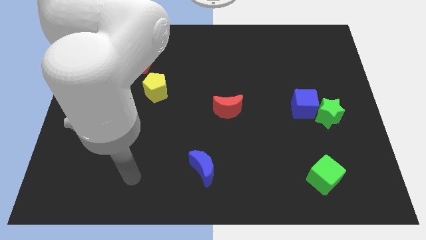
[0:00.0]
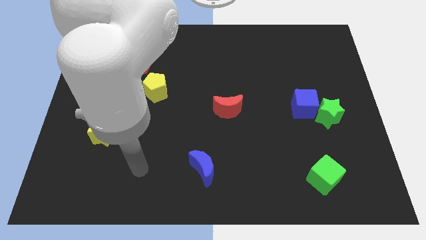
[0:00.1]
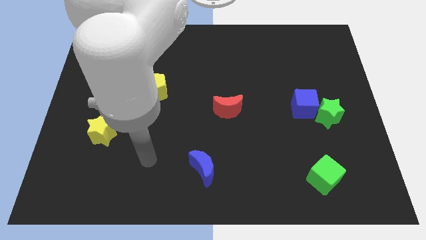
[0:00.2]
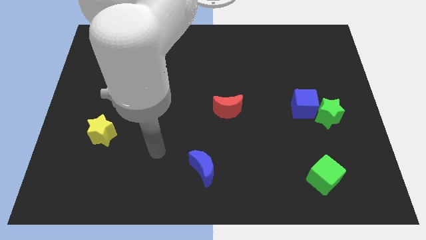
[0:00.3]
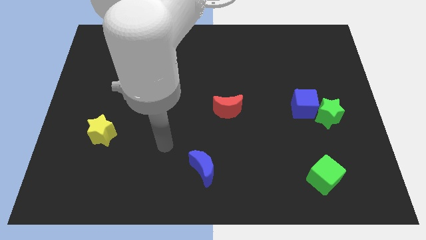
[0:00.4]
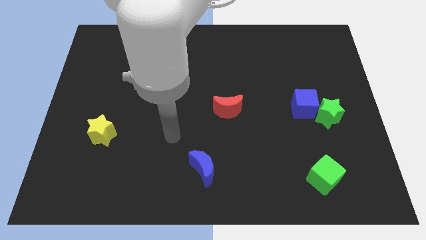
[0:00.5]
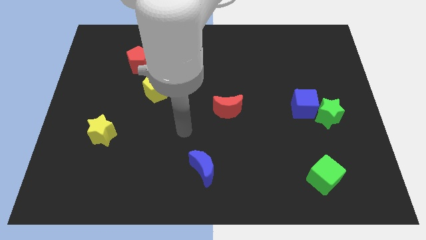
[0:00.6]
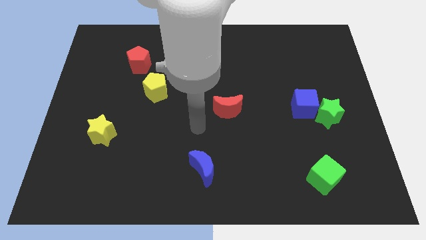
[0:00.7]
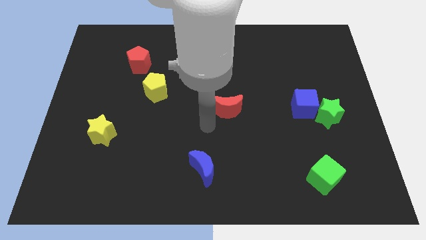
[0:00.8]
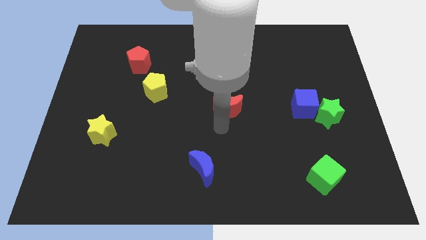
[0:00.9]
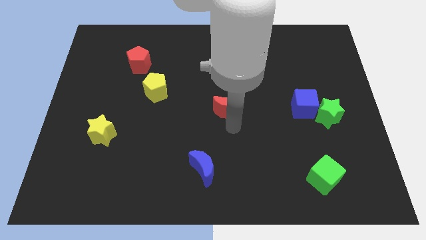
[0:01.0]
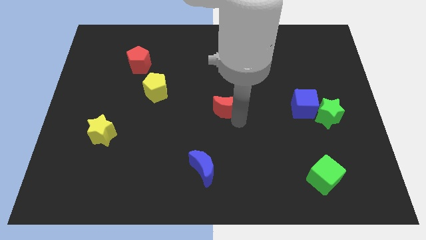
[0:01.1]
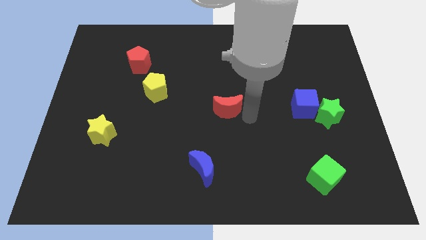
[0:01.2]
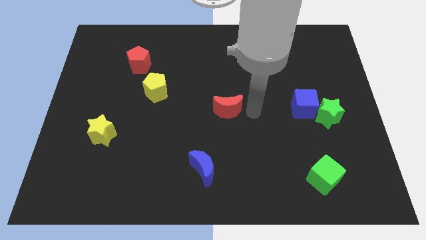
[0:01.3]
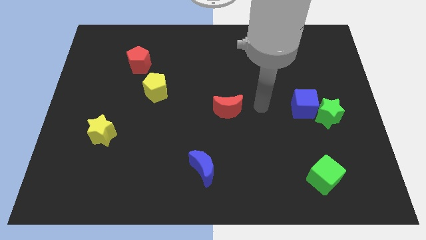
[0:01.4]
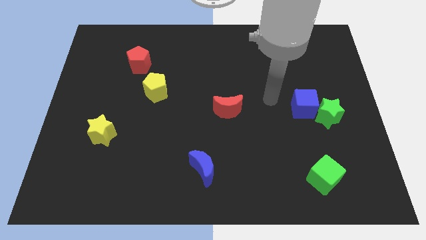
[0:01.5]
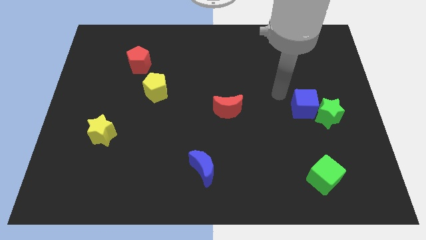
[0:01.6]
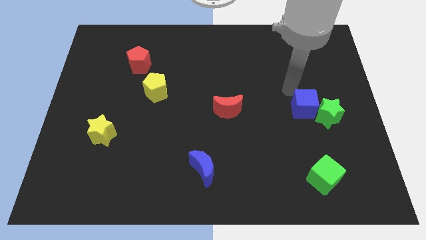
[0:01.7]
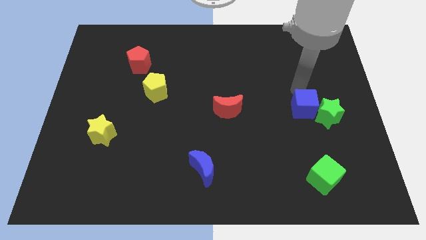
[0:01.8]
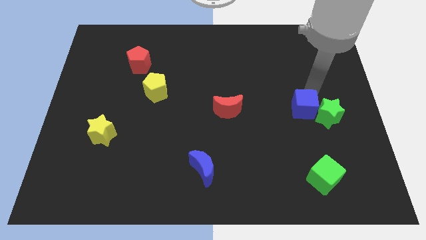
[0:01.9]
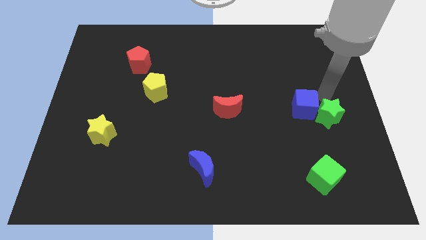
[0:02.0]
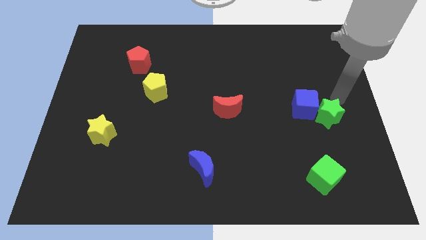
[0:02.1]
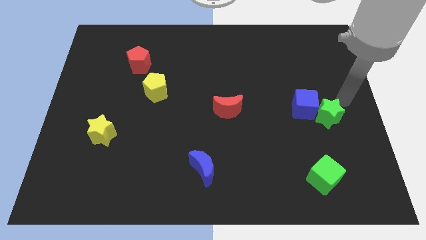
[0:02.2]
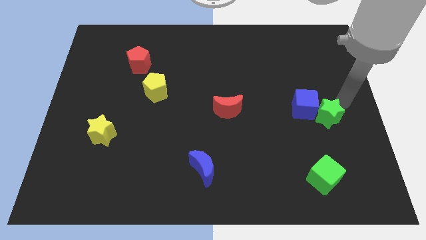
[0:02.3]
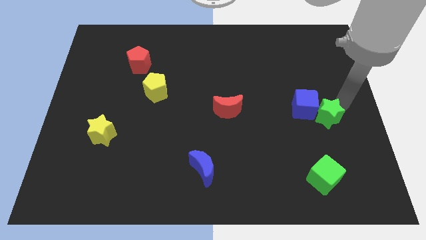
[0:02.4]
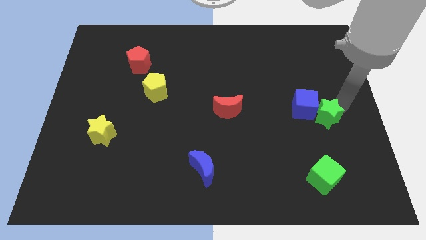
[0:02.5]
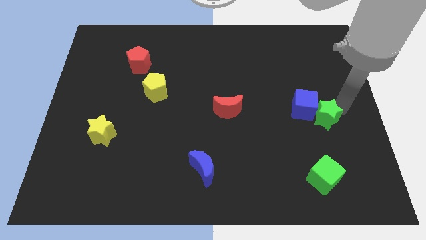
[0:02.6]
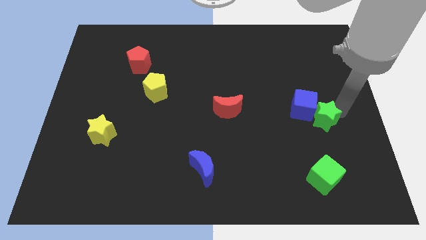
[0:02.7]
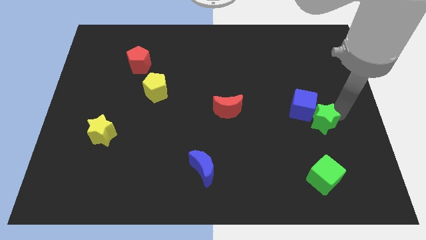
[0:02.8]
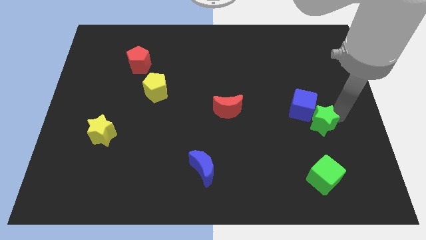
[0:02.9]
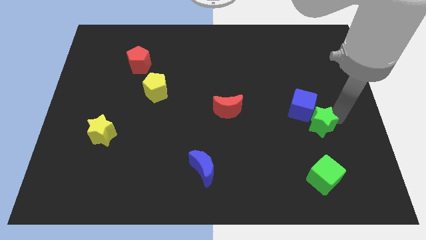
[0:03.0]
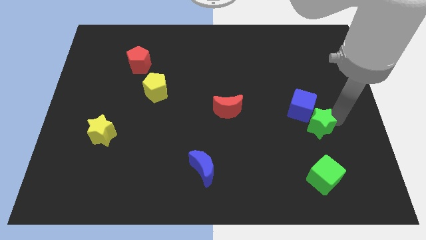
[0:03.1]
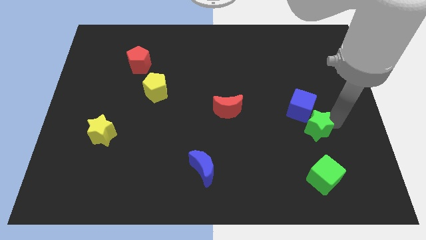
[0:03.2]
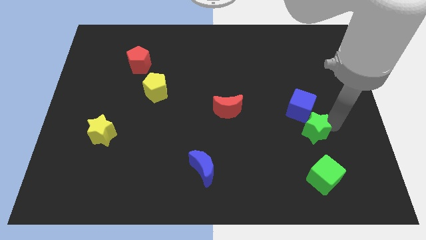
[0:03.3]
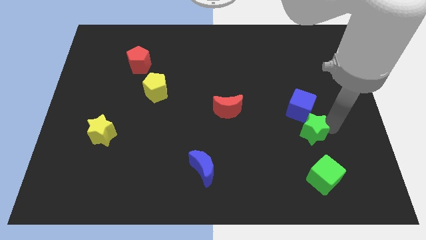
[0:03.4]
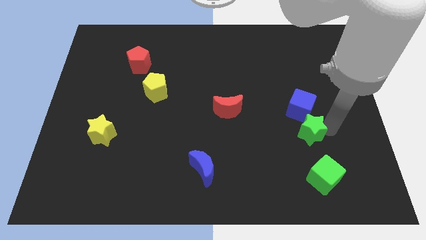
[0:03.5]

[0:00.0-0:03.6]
push the green star downwards and to the left a little

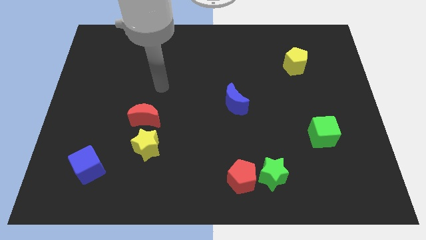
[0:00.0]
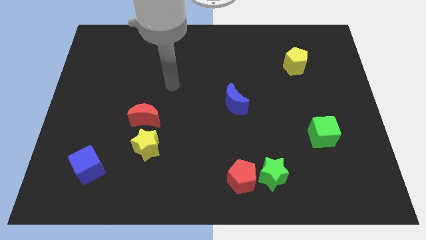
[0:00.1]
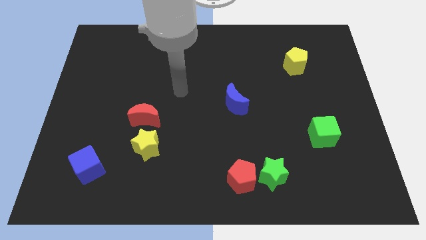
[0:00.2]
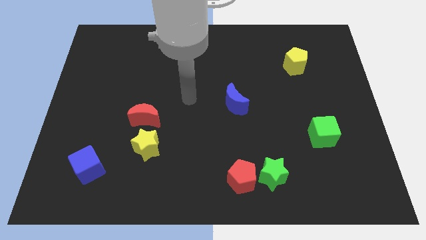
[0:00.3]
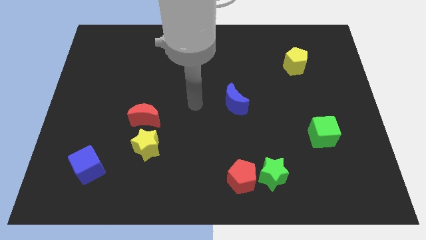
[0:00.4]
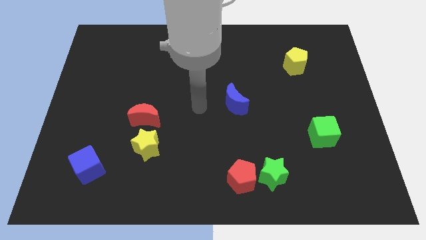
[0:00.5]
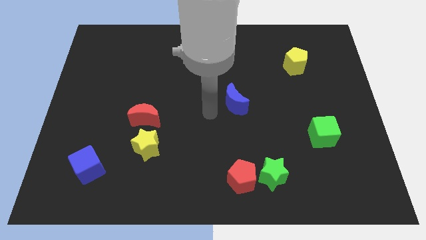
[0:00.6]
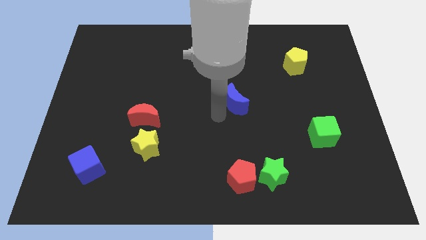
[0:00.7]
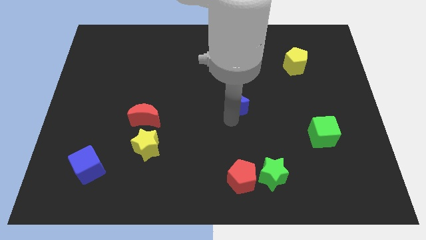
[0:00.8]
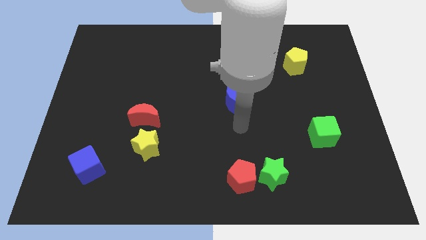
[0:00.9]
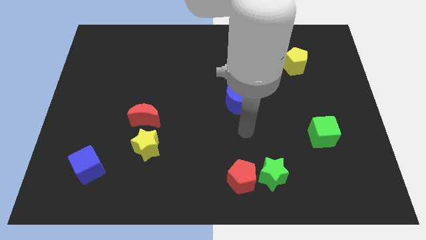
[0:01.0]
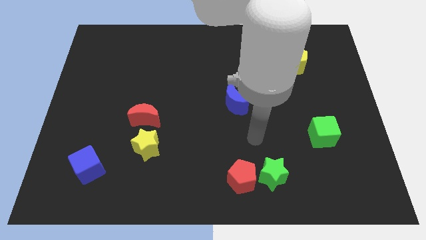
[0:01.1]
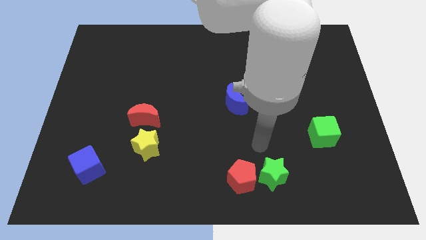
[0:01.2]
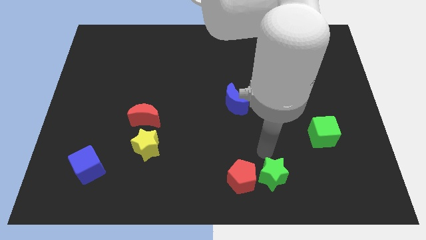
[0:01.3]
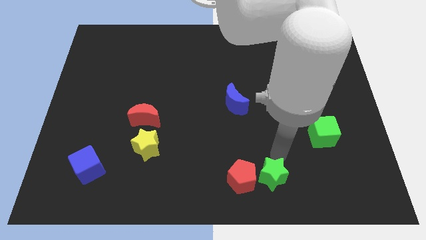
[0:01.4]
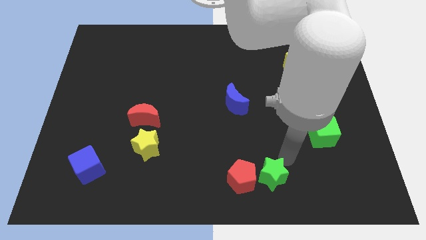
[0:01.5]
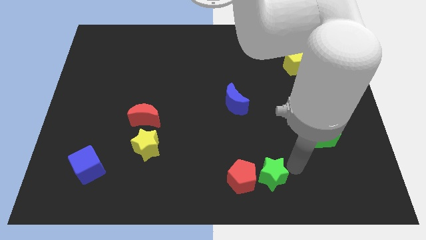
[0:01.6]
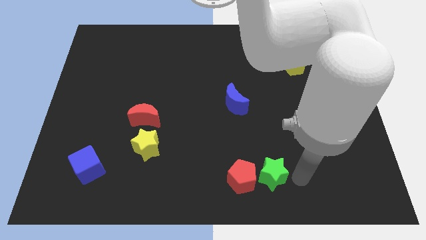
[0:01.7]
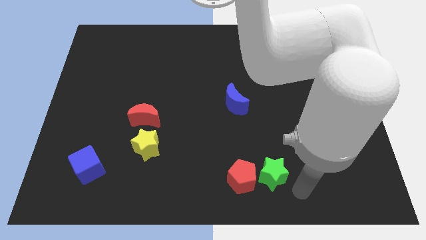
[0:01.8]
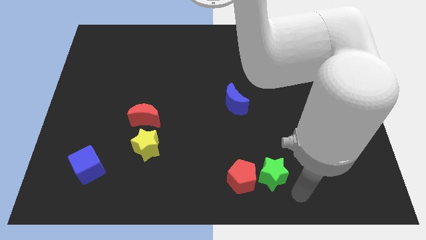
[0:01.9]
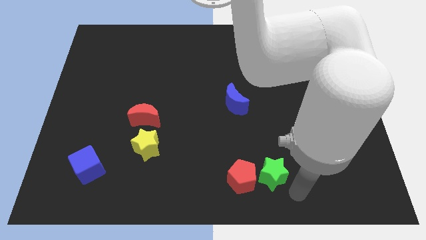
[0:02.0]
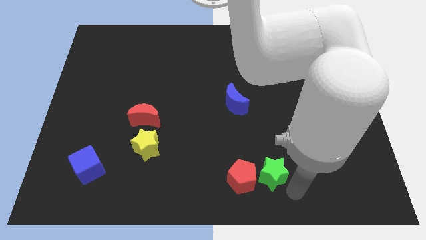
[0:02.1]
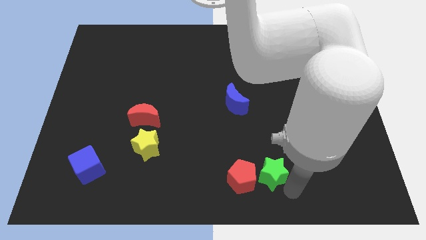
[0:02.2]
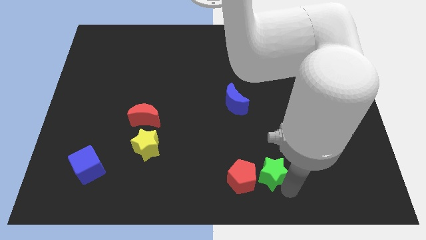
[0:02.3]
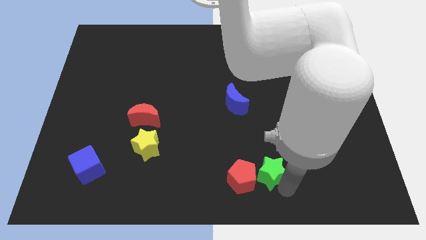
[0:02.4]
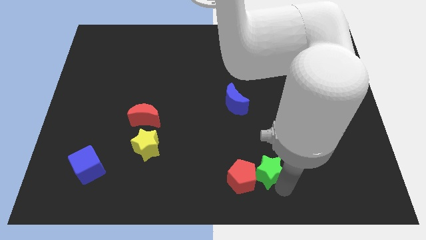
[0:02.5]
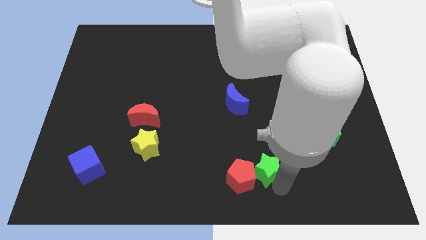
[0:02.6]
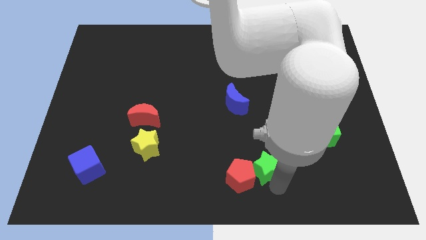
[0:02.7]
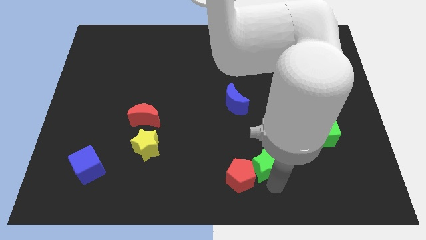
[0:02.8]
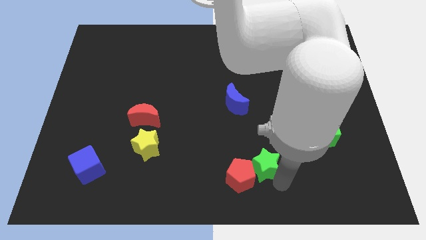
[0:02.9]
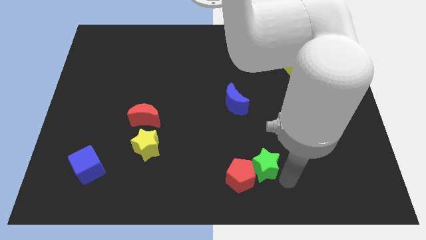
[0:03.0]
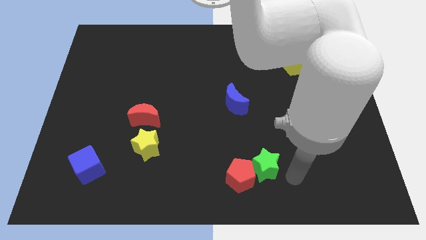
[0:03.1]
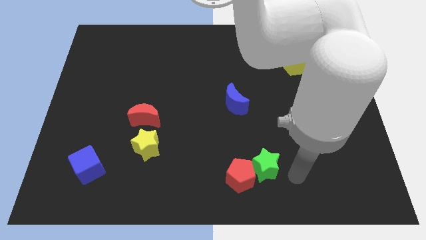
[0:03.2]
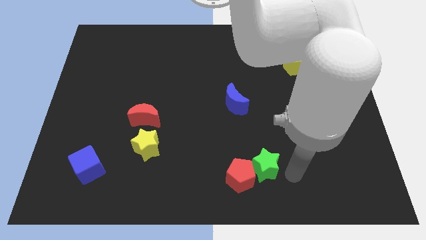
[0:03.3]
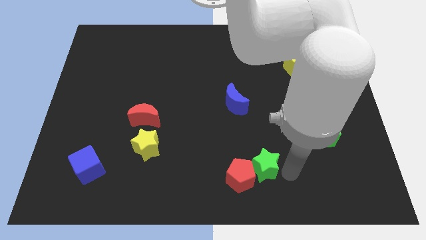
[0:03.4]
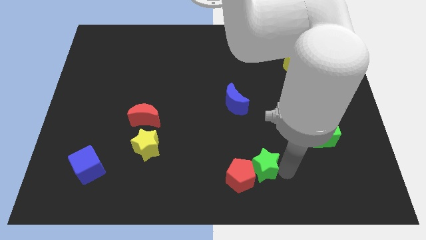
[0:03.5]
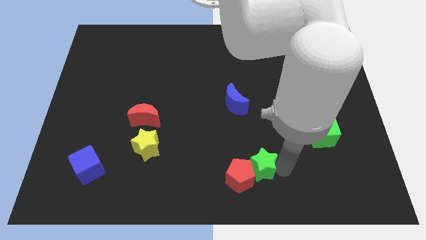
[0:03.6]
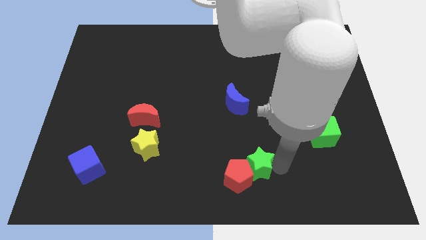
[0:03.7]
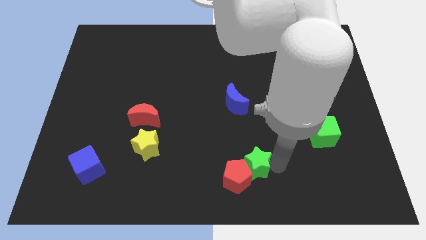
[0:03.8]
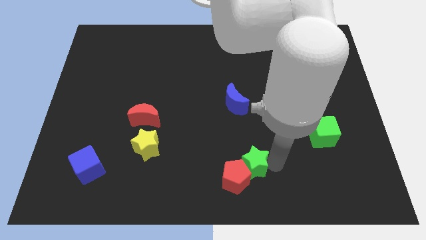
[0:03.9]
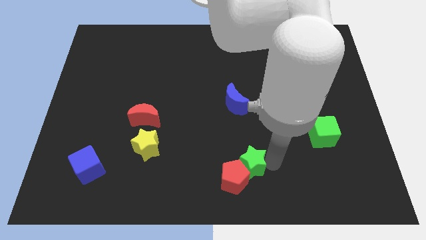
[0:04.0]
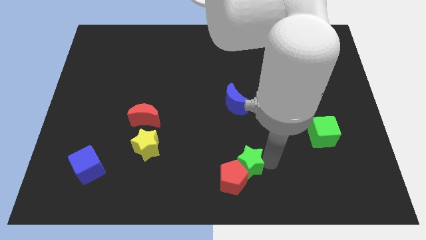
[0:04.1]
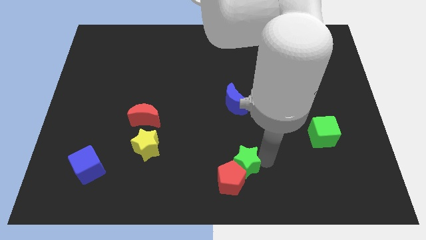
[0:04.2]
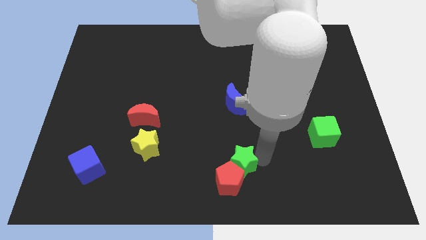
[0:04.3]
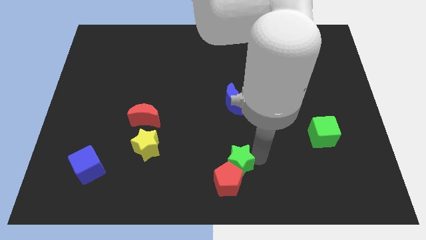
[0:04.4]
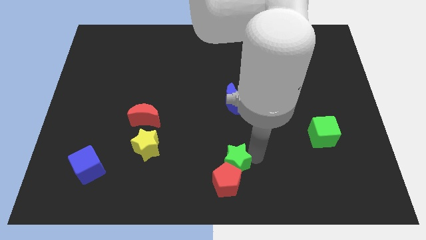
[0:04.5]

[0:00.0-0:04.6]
slightly slide the green star to the left
